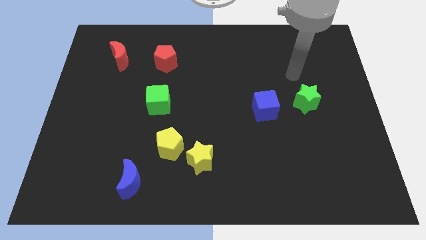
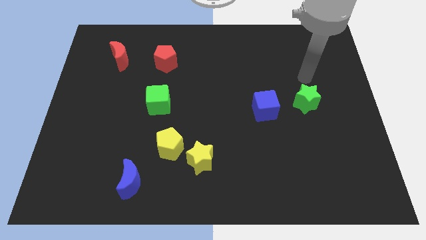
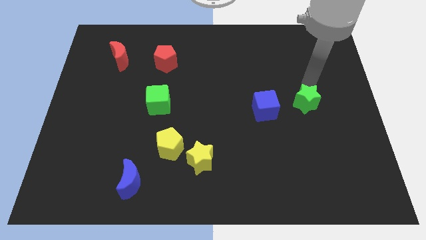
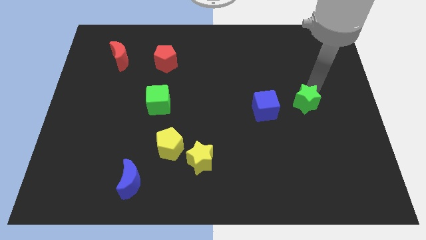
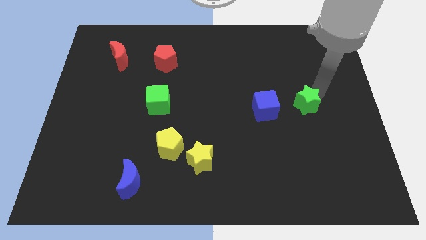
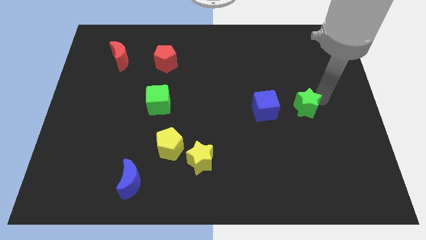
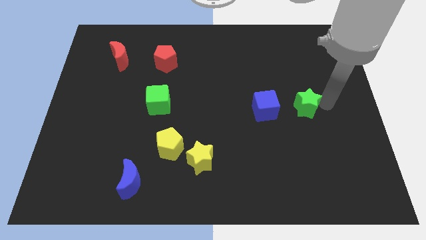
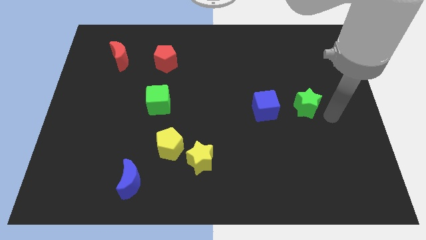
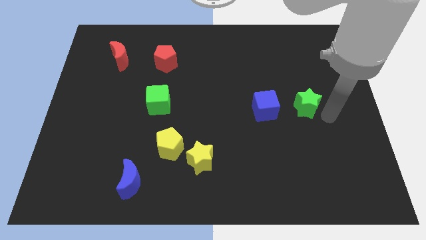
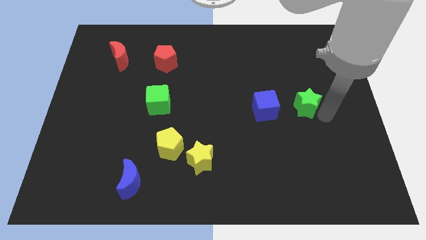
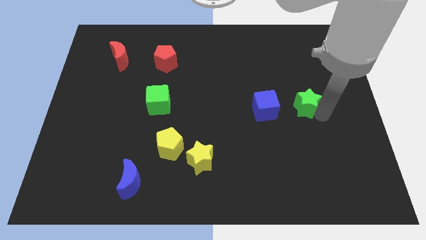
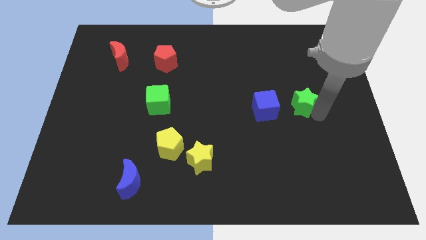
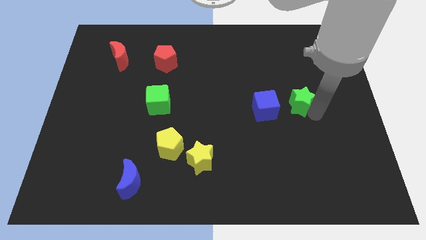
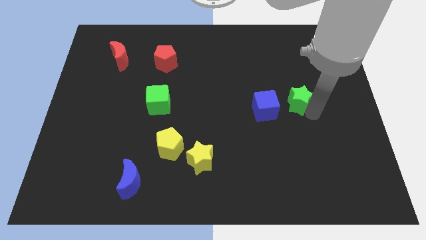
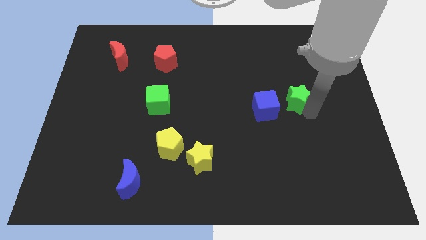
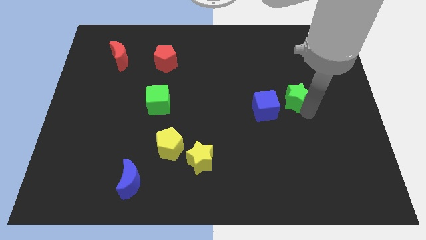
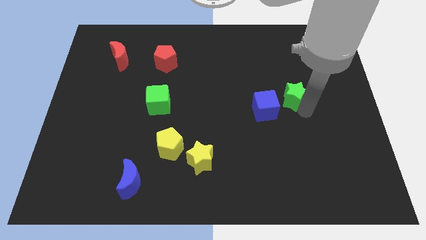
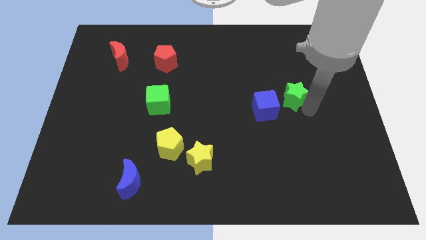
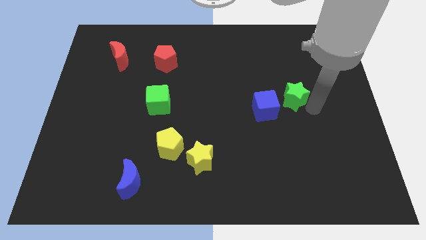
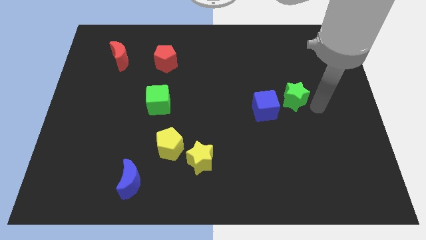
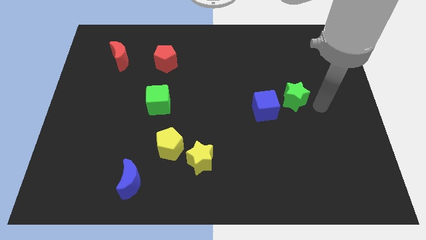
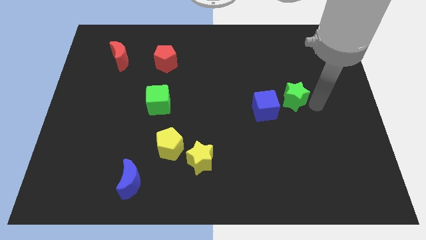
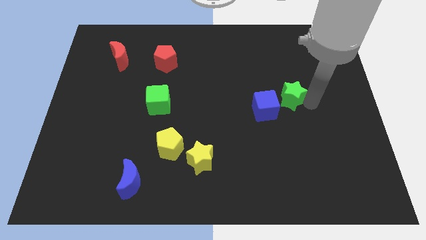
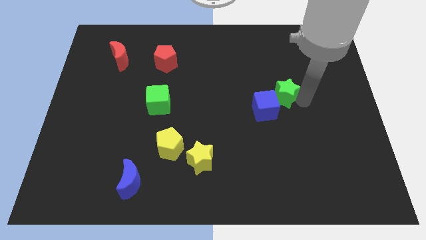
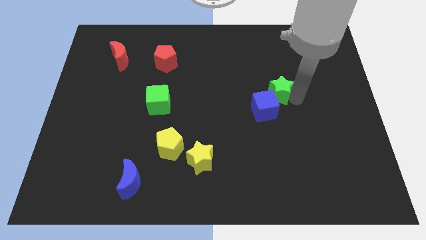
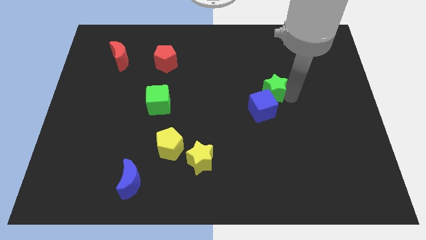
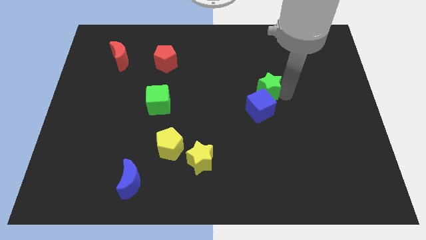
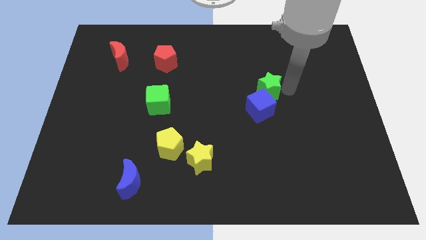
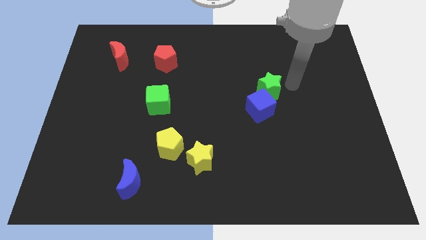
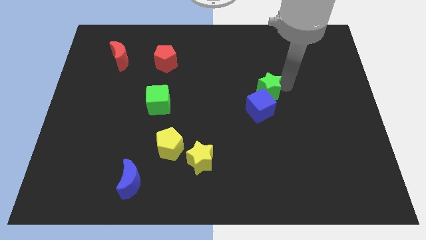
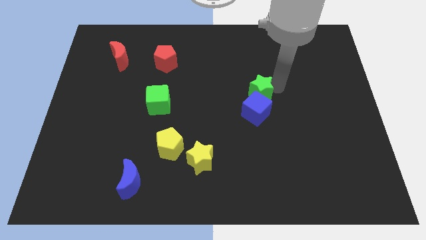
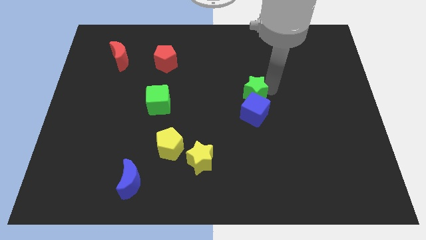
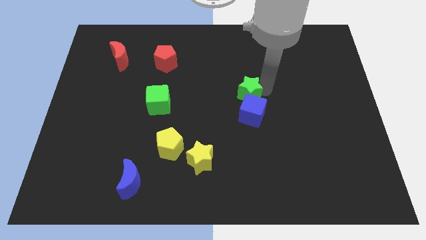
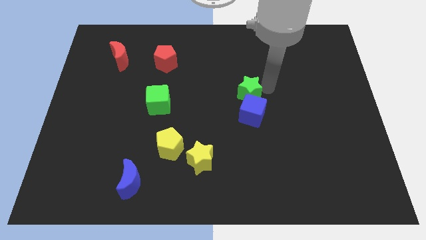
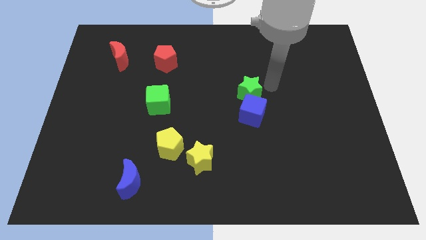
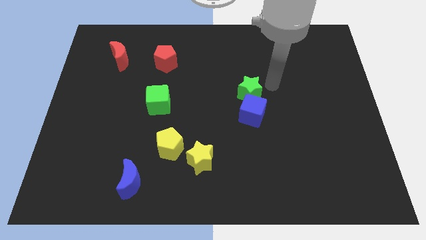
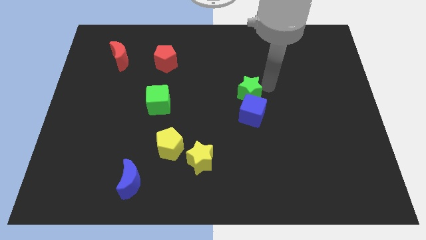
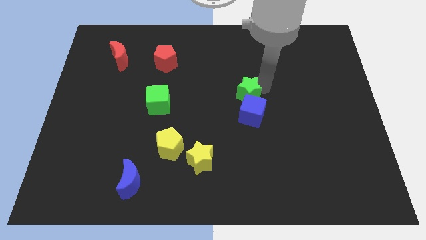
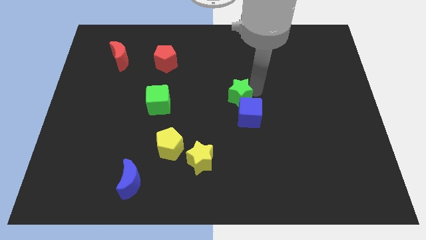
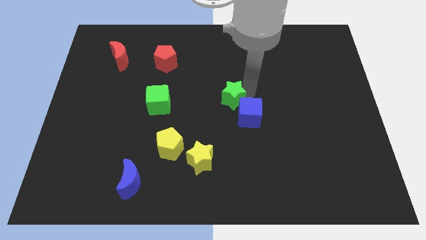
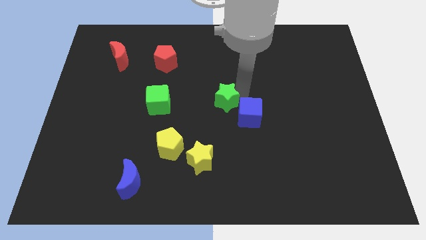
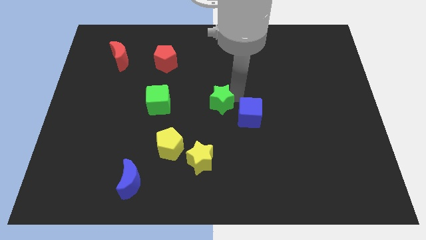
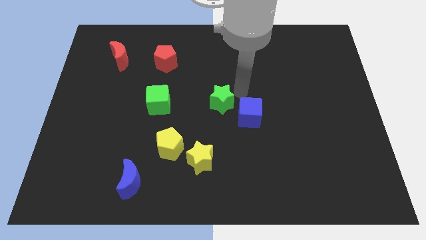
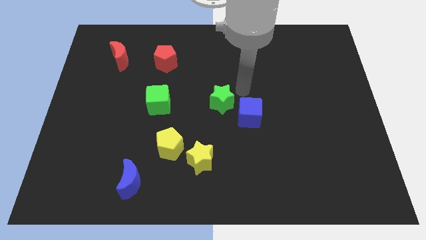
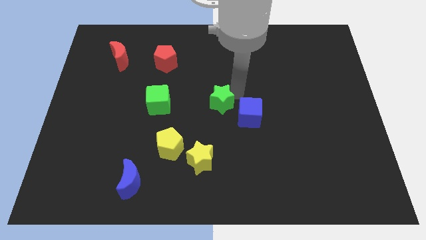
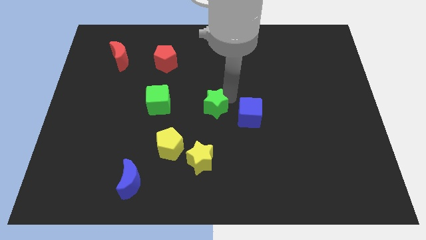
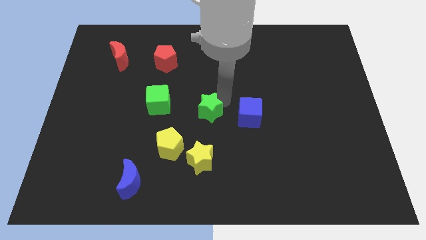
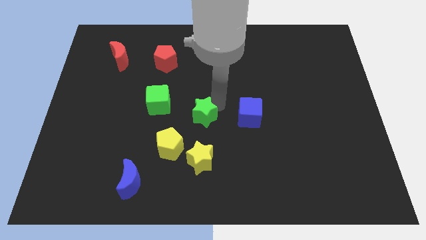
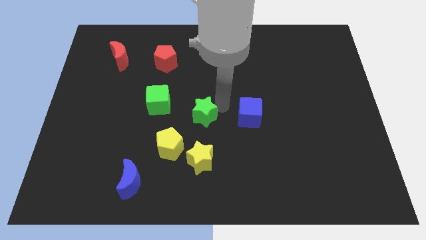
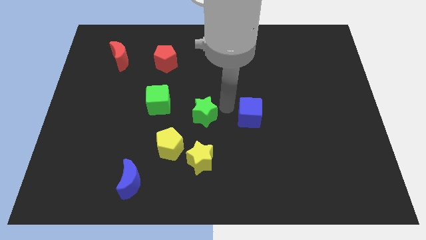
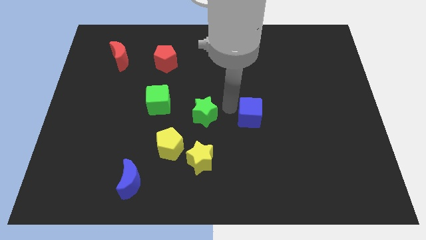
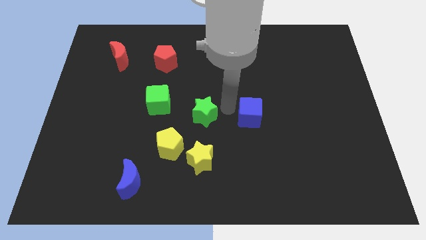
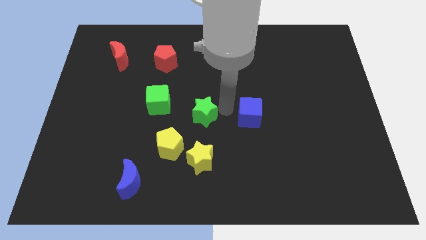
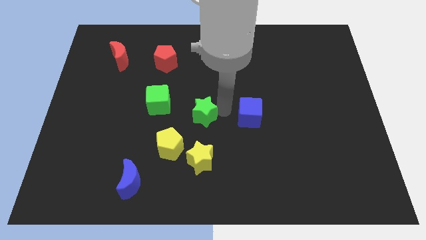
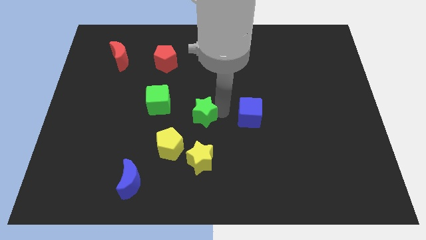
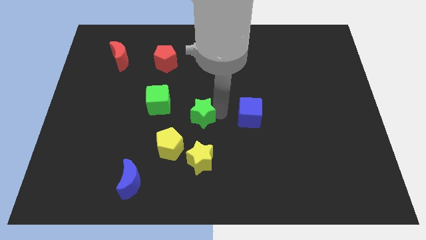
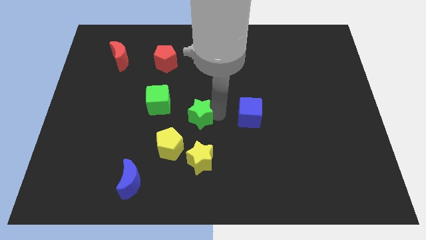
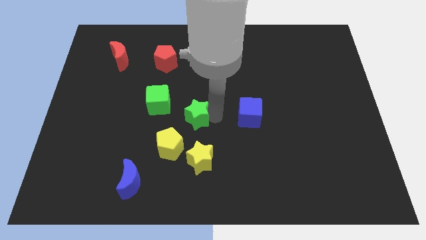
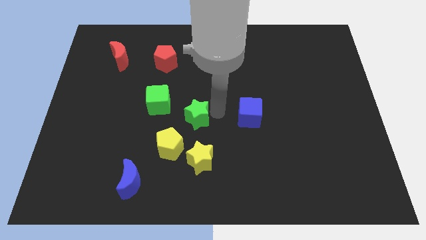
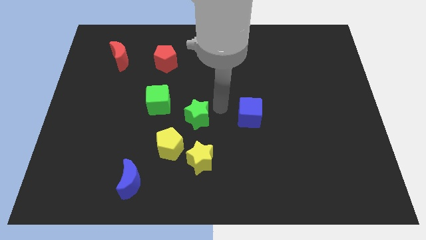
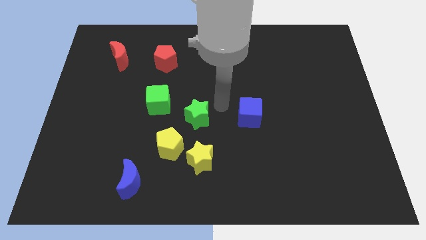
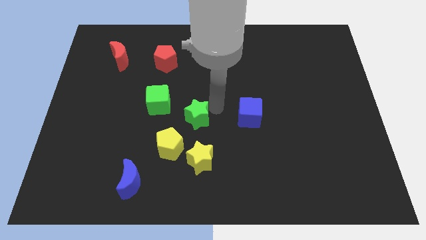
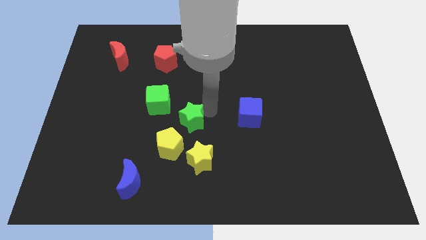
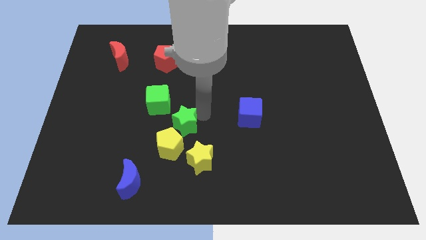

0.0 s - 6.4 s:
push the green star to the top left side of the yellow star

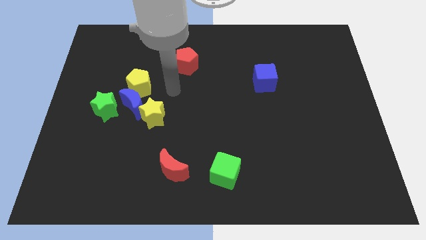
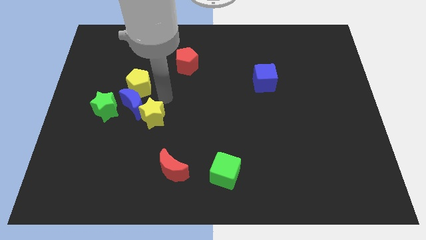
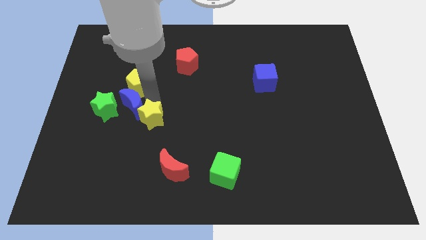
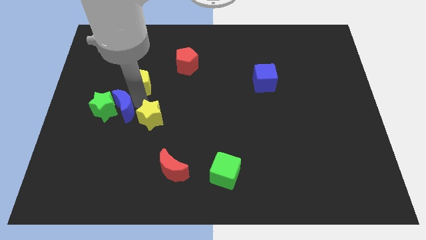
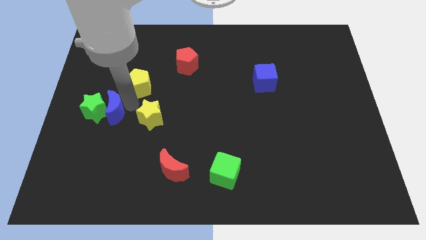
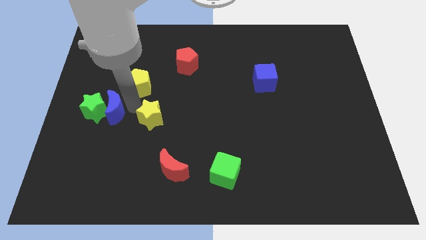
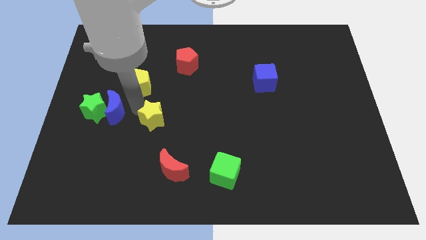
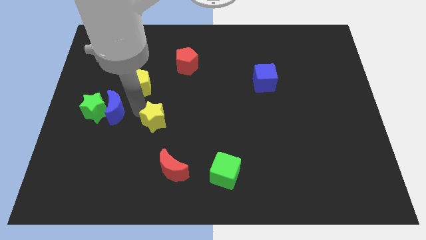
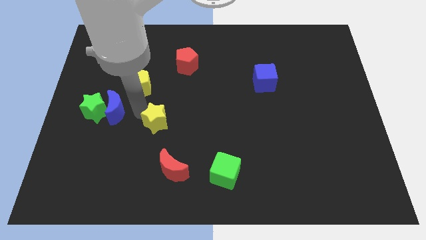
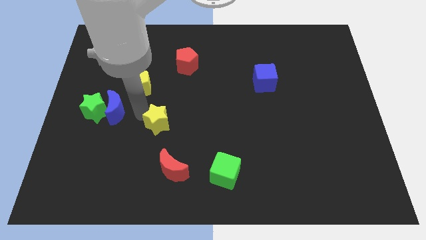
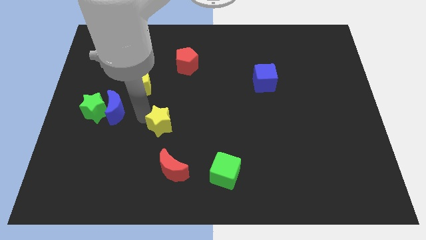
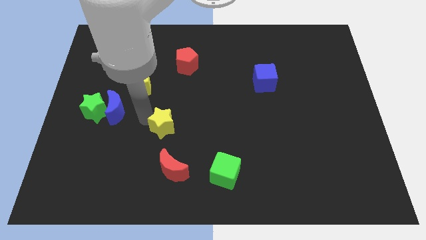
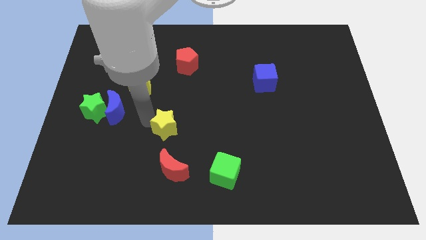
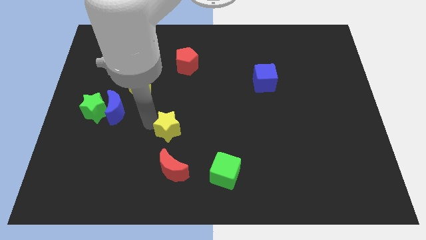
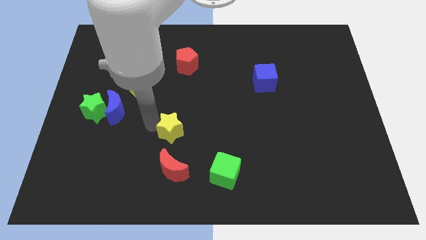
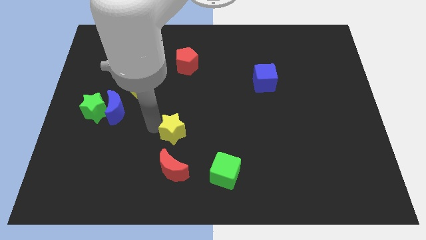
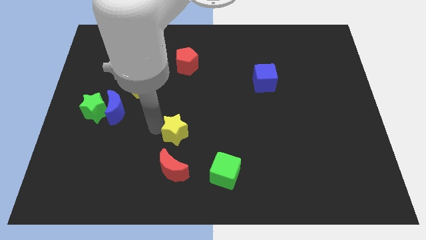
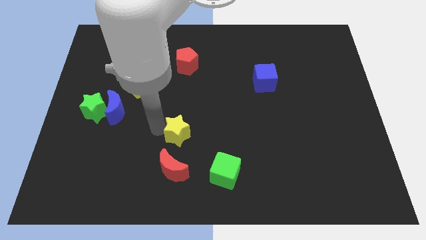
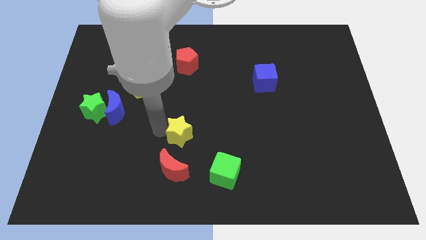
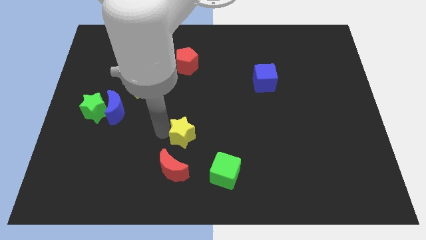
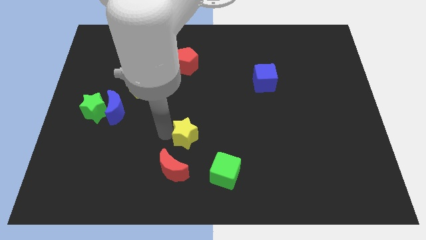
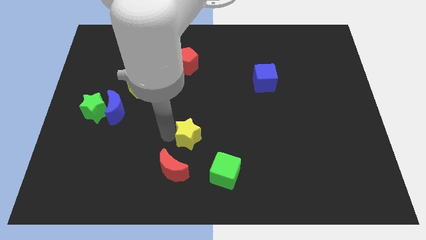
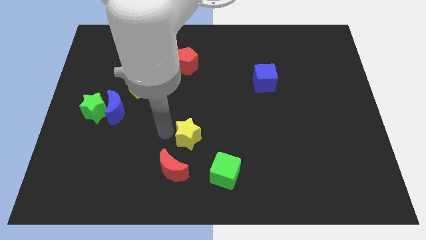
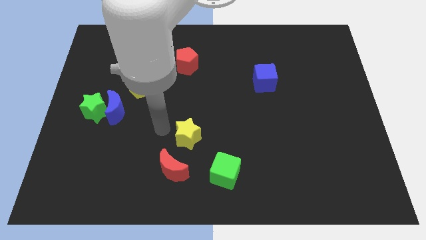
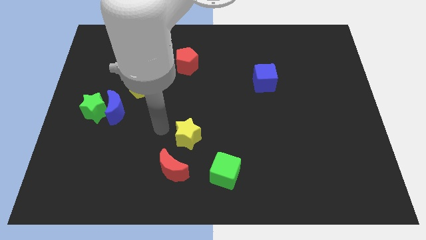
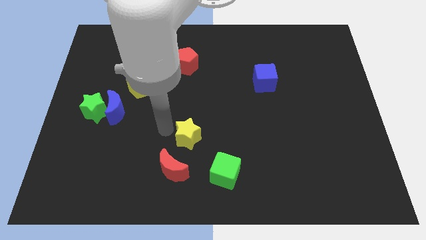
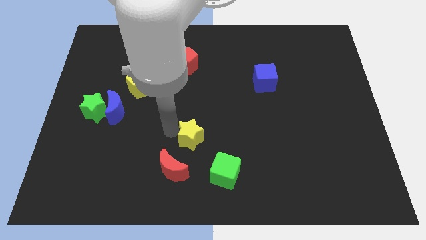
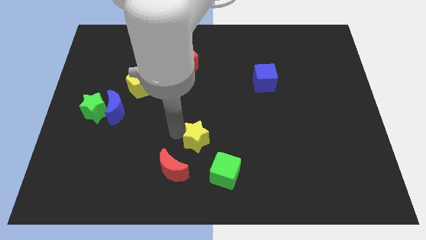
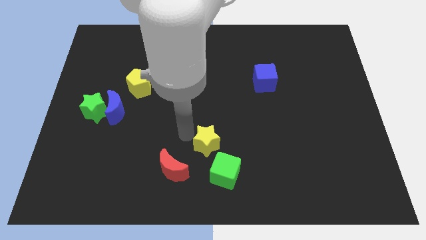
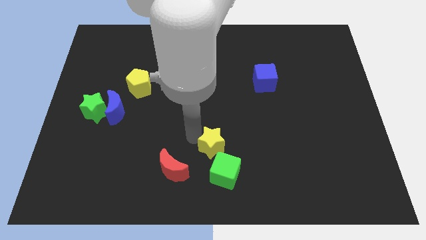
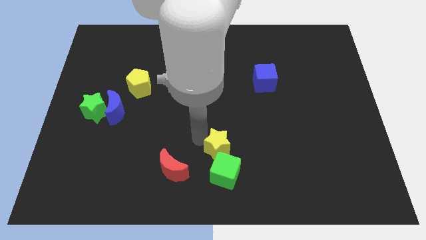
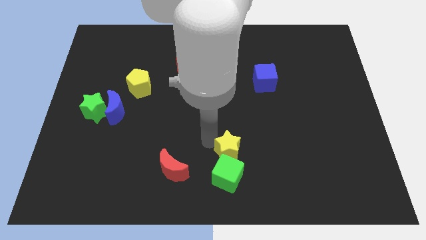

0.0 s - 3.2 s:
put the yellow star just right of the red moon
